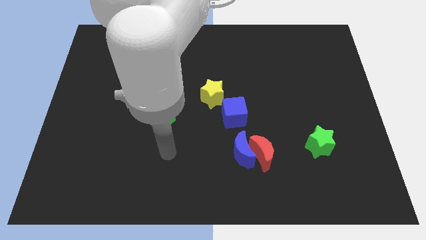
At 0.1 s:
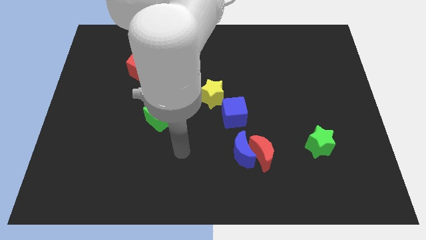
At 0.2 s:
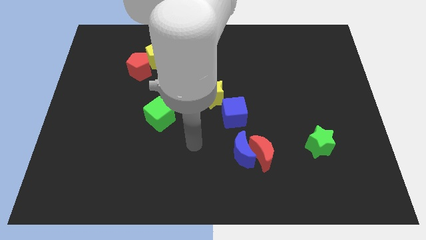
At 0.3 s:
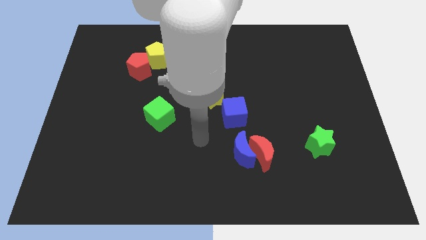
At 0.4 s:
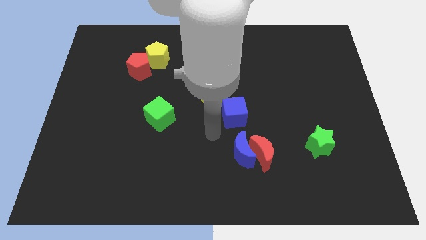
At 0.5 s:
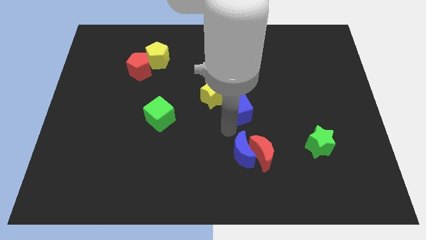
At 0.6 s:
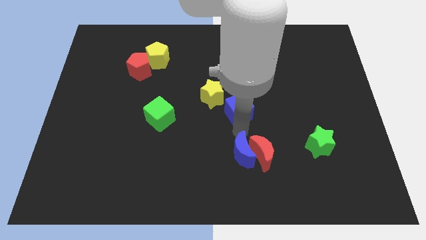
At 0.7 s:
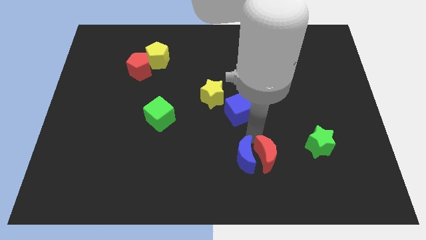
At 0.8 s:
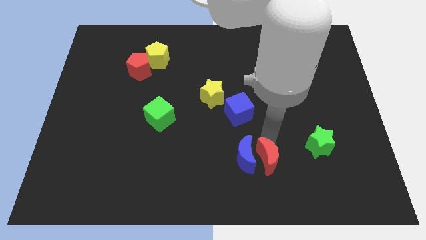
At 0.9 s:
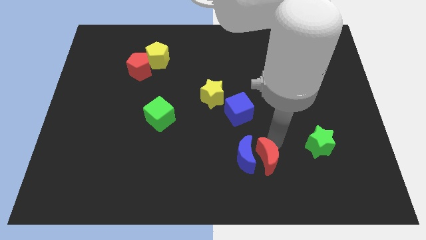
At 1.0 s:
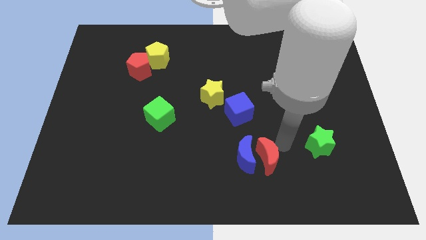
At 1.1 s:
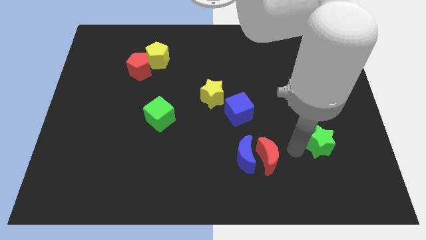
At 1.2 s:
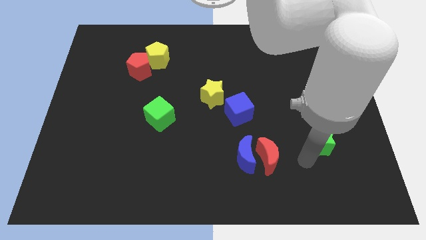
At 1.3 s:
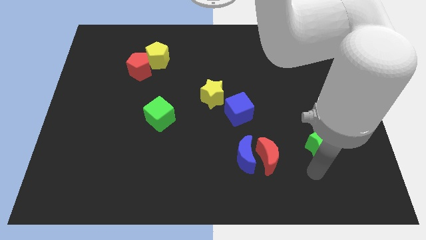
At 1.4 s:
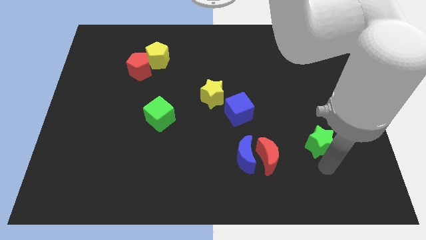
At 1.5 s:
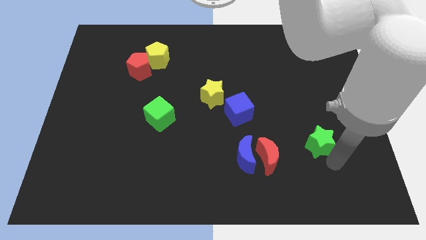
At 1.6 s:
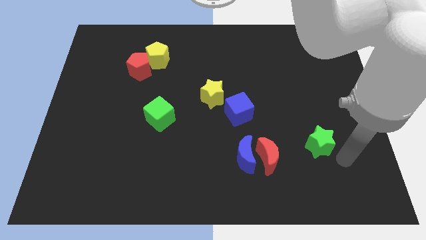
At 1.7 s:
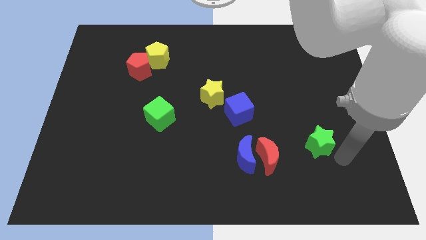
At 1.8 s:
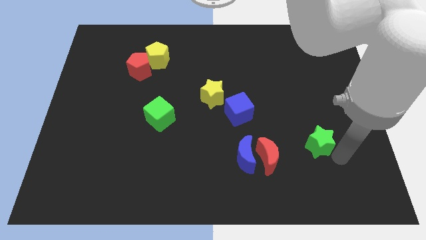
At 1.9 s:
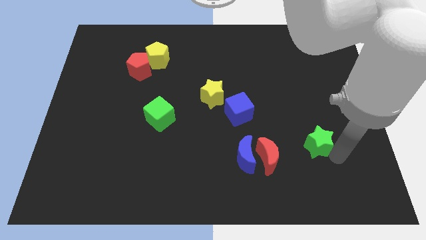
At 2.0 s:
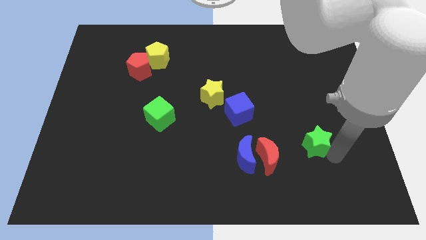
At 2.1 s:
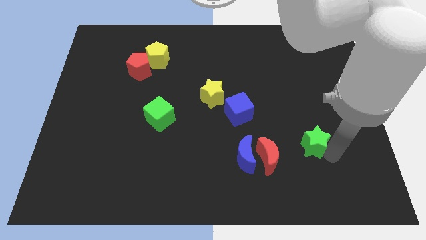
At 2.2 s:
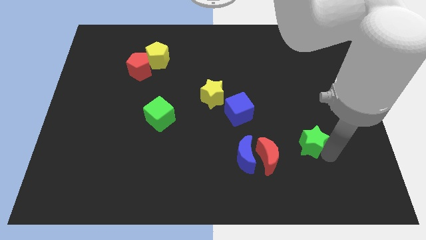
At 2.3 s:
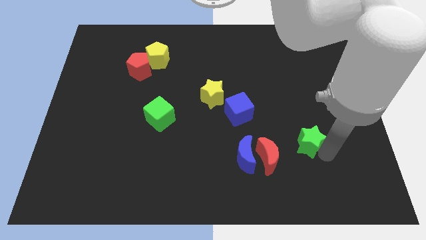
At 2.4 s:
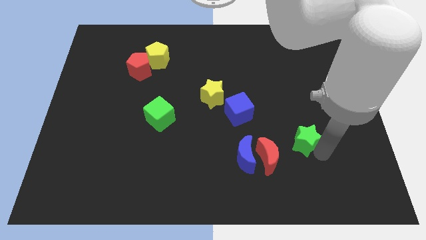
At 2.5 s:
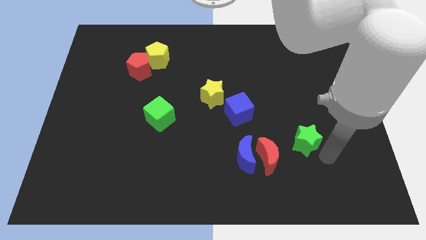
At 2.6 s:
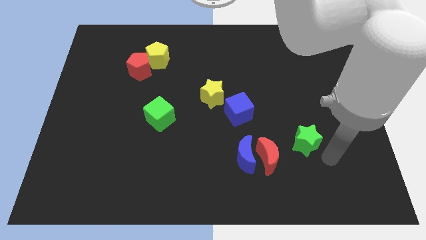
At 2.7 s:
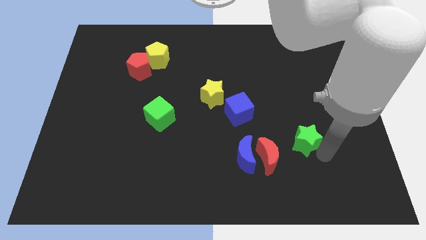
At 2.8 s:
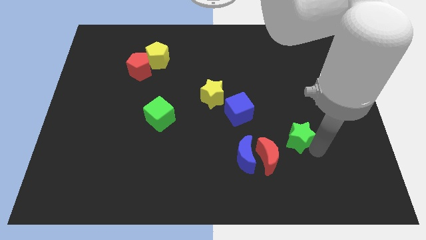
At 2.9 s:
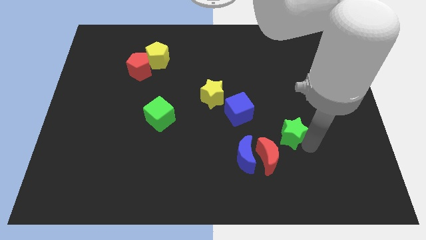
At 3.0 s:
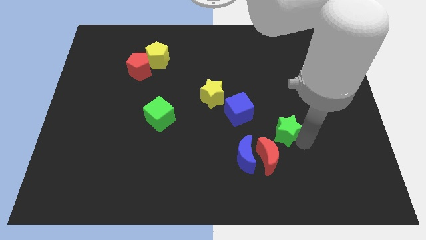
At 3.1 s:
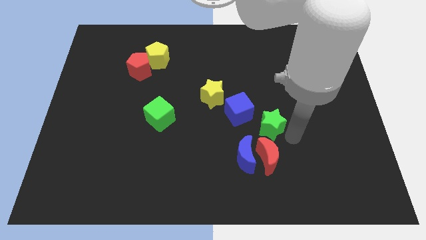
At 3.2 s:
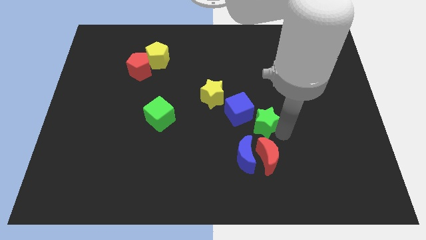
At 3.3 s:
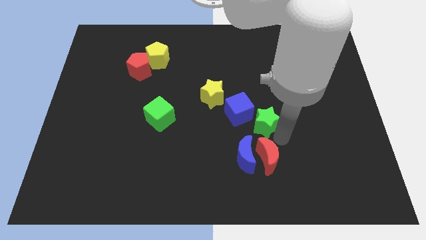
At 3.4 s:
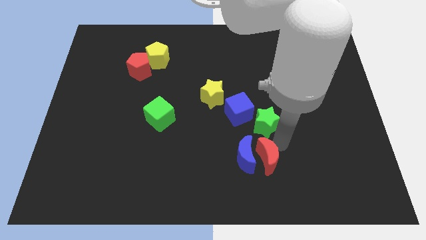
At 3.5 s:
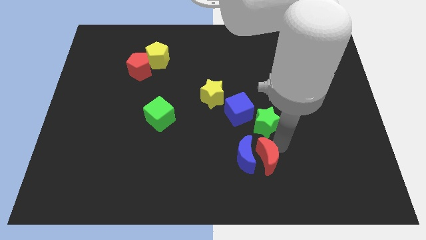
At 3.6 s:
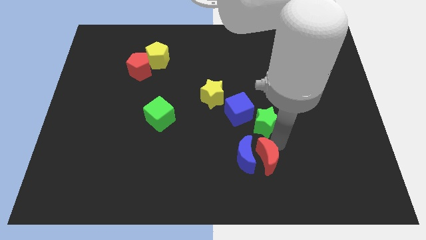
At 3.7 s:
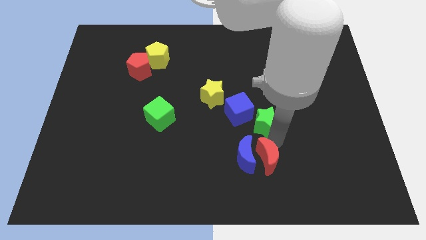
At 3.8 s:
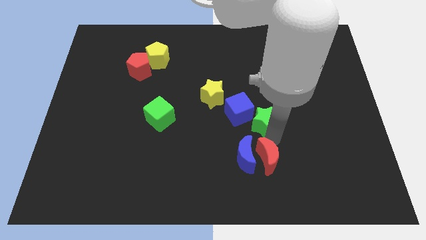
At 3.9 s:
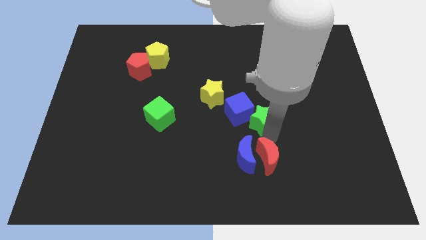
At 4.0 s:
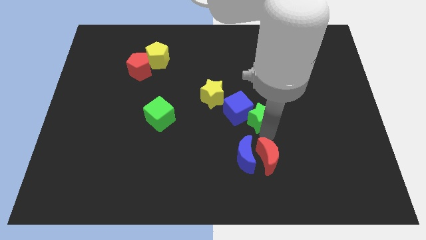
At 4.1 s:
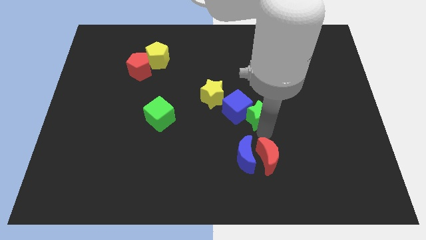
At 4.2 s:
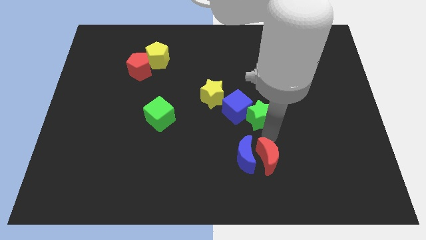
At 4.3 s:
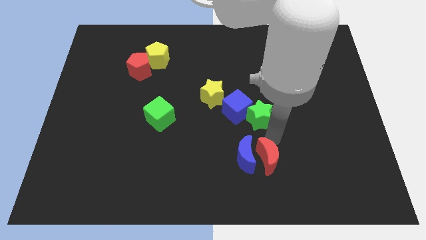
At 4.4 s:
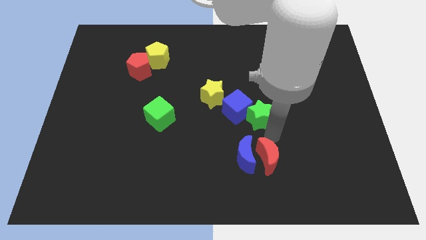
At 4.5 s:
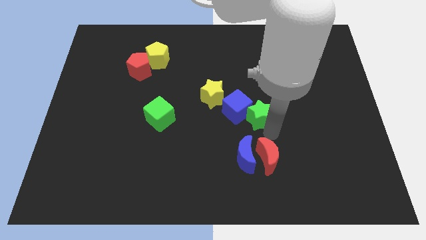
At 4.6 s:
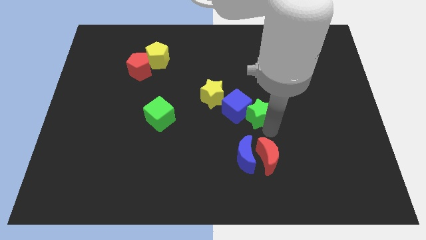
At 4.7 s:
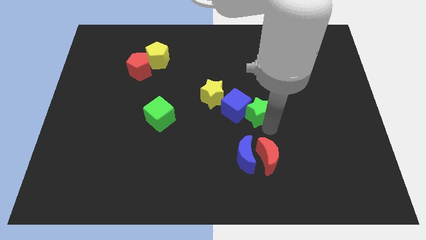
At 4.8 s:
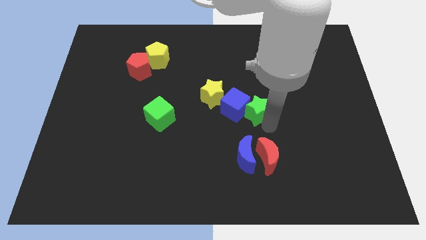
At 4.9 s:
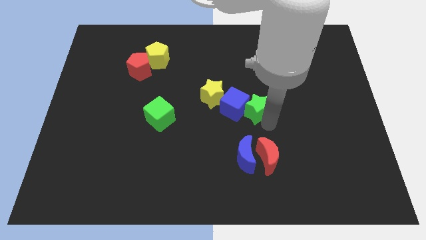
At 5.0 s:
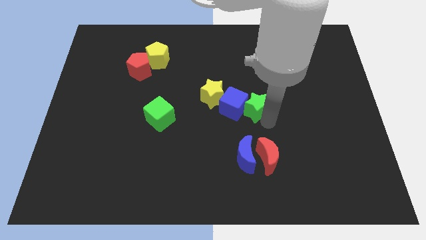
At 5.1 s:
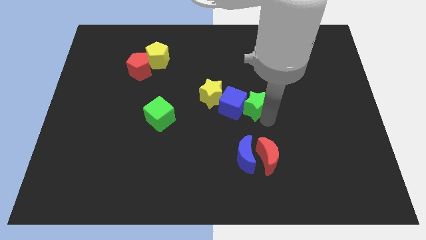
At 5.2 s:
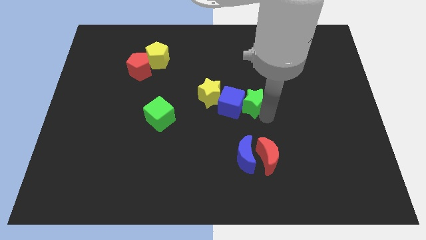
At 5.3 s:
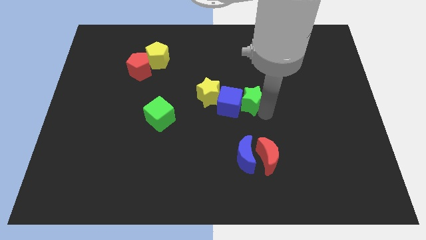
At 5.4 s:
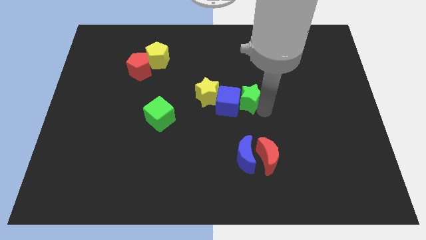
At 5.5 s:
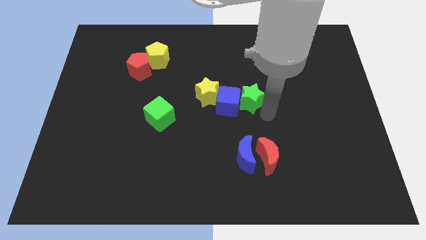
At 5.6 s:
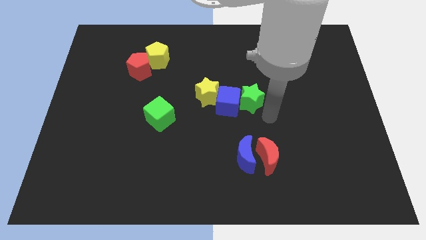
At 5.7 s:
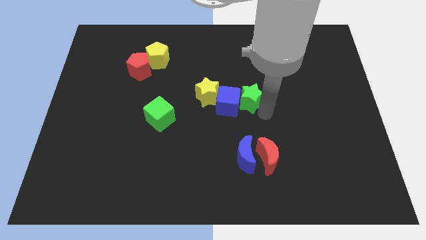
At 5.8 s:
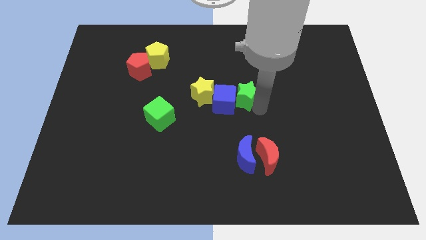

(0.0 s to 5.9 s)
move the green star up and left diagonally

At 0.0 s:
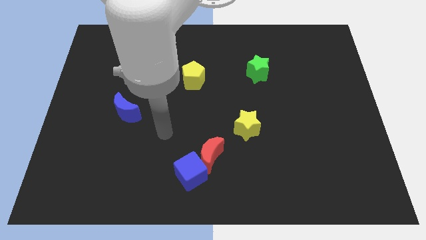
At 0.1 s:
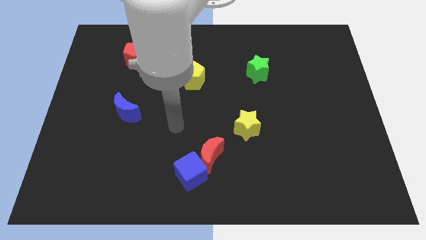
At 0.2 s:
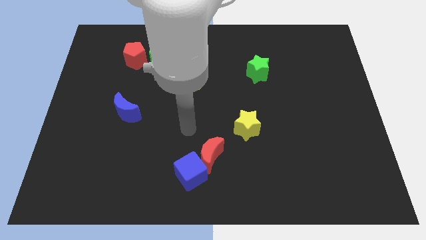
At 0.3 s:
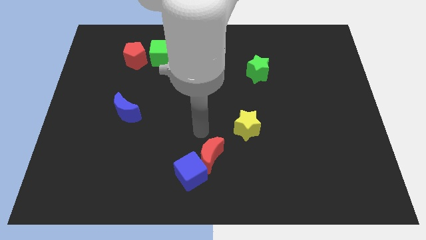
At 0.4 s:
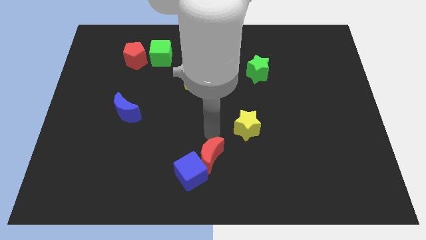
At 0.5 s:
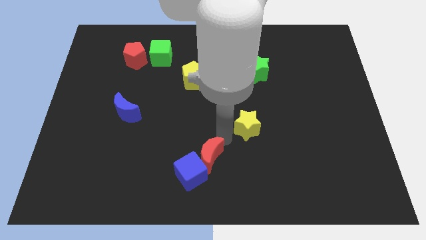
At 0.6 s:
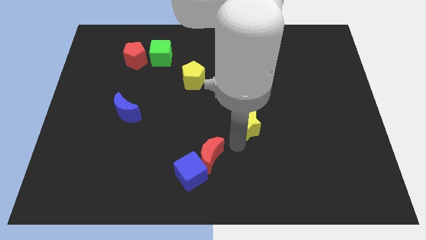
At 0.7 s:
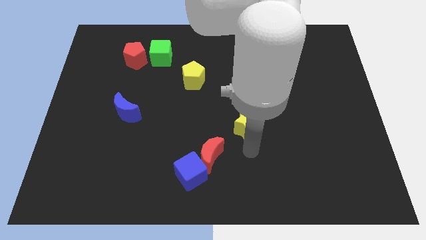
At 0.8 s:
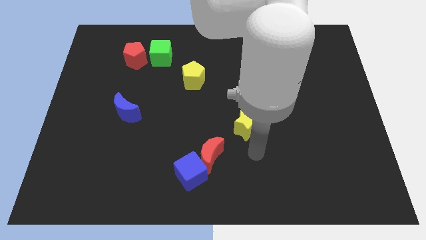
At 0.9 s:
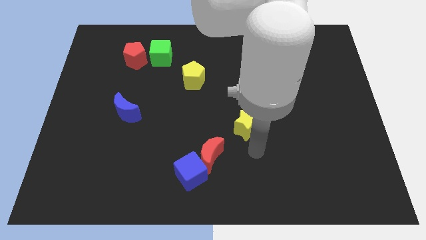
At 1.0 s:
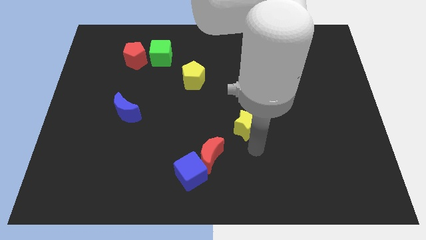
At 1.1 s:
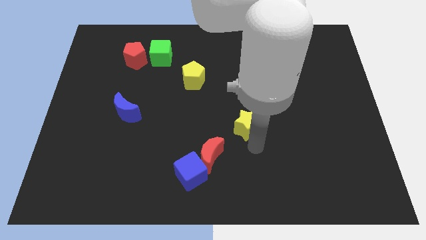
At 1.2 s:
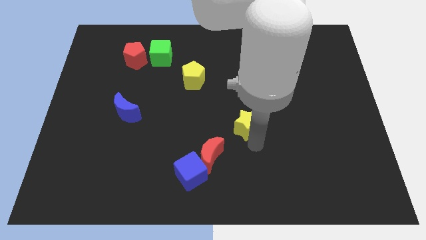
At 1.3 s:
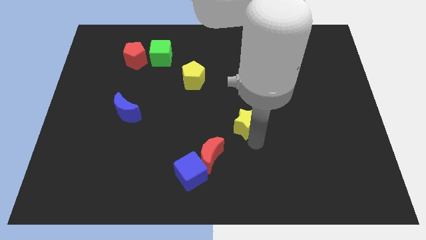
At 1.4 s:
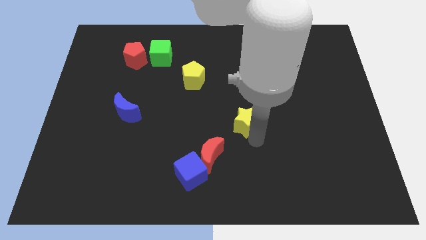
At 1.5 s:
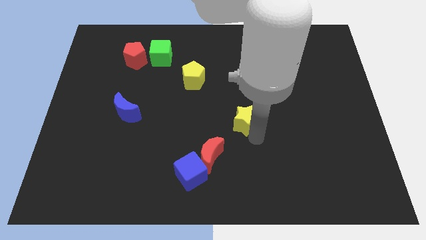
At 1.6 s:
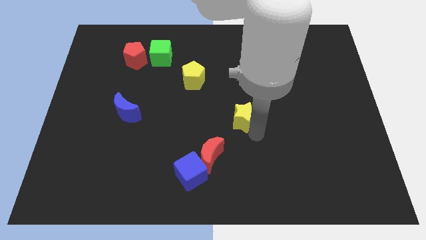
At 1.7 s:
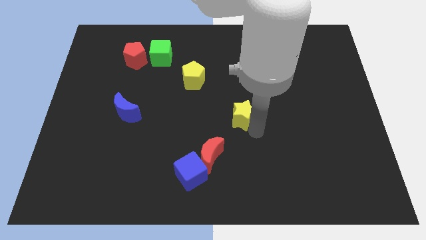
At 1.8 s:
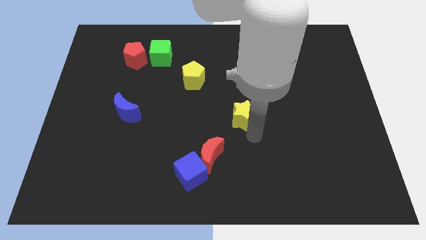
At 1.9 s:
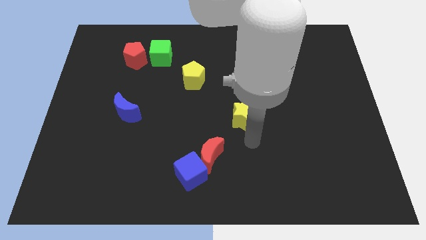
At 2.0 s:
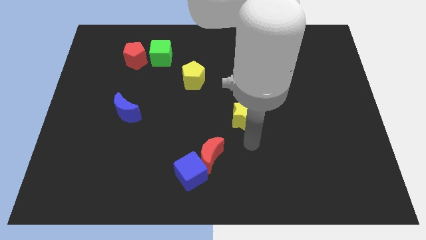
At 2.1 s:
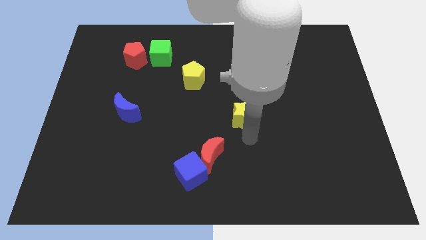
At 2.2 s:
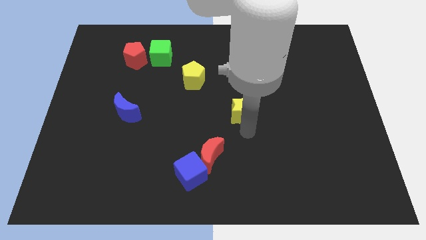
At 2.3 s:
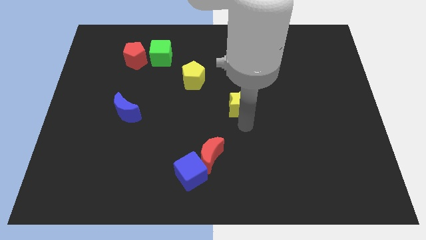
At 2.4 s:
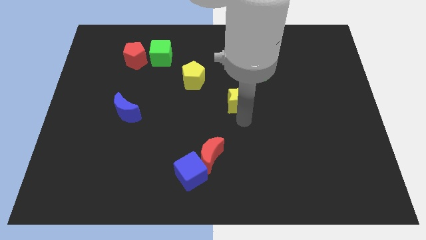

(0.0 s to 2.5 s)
slide the yellow star up a bit

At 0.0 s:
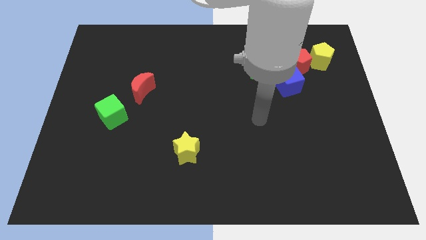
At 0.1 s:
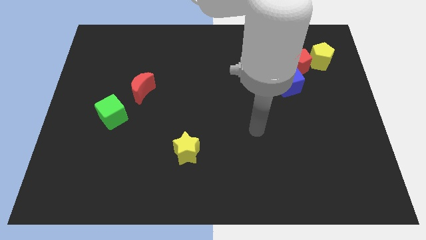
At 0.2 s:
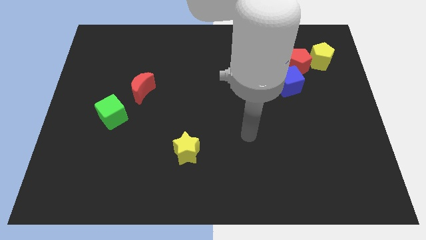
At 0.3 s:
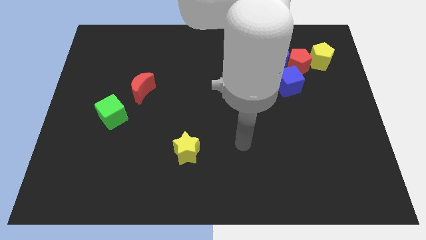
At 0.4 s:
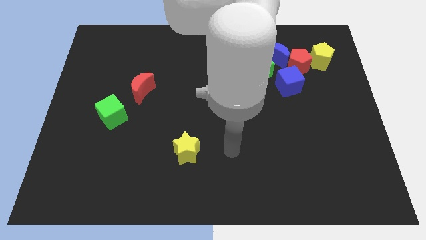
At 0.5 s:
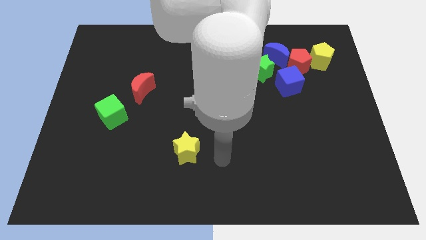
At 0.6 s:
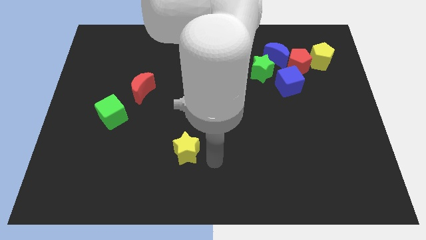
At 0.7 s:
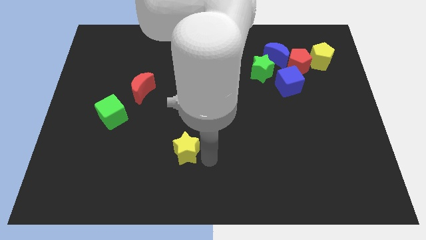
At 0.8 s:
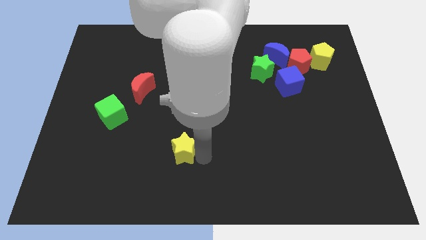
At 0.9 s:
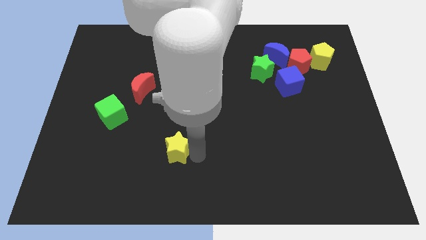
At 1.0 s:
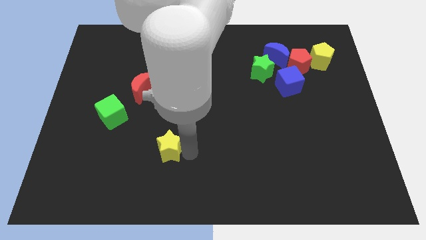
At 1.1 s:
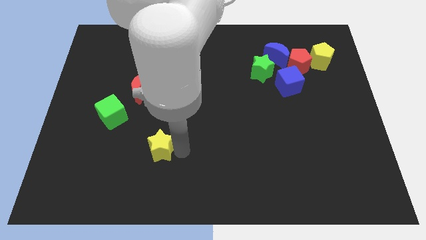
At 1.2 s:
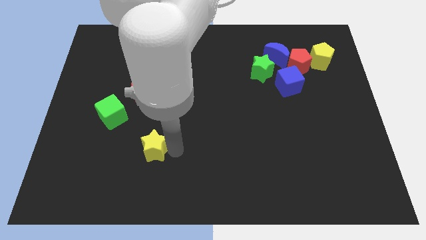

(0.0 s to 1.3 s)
slightly move the yellow star left
